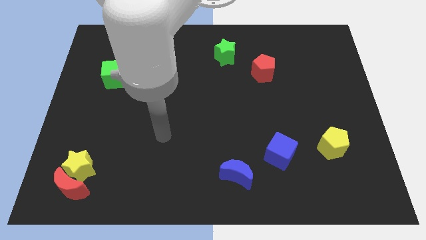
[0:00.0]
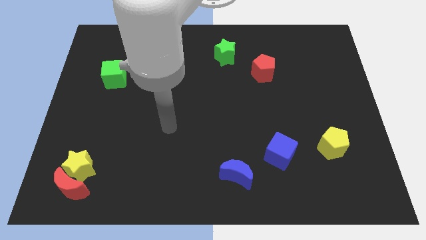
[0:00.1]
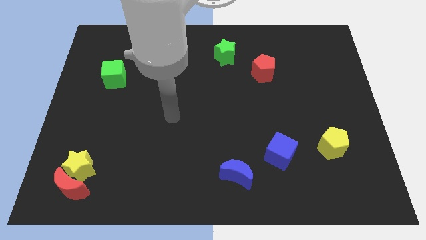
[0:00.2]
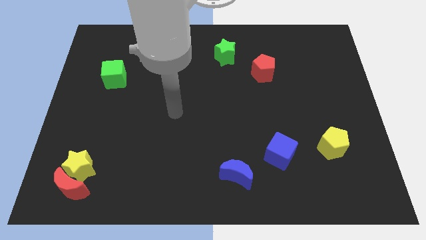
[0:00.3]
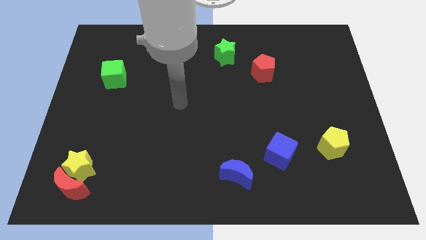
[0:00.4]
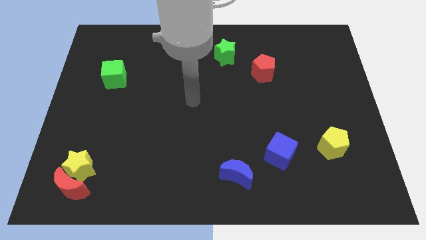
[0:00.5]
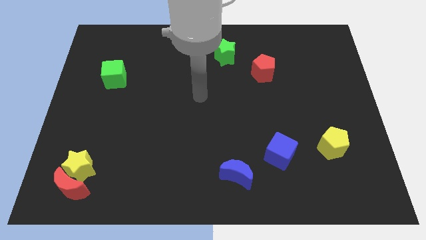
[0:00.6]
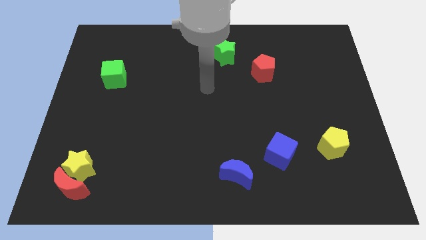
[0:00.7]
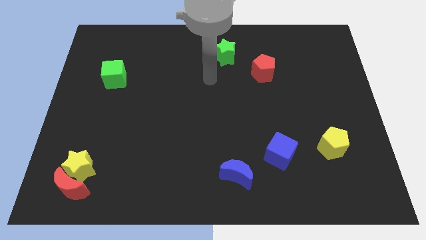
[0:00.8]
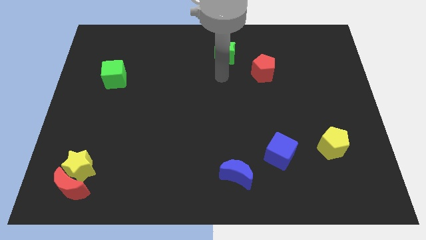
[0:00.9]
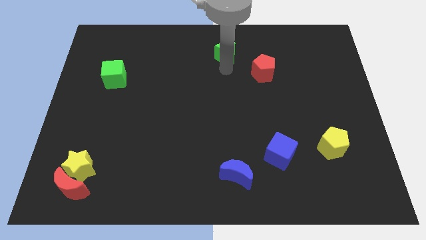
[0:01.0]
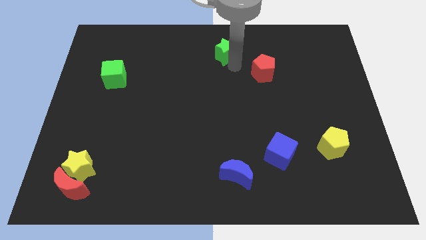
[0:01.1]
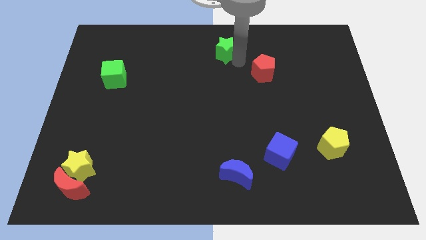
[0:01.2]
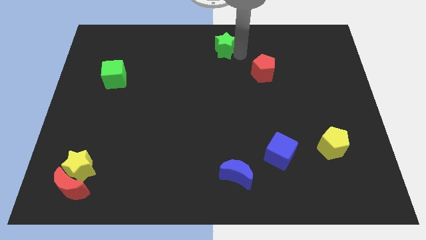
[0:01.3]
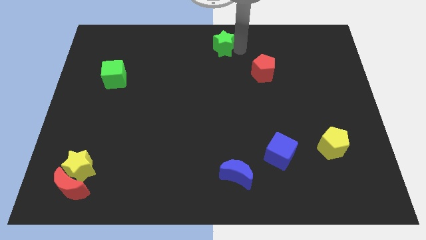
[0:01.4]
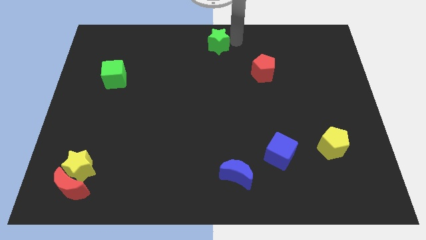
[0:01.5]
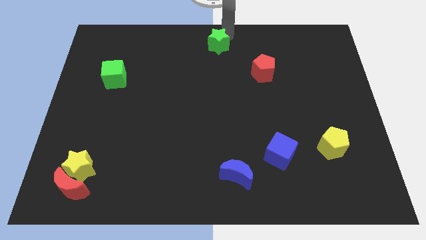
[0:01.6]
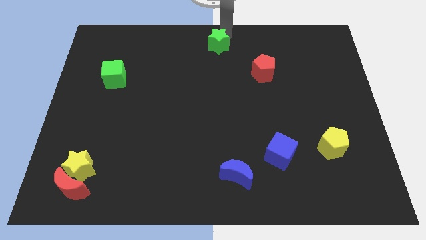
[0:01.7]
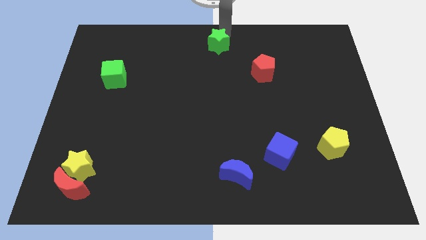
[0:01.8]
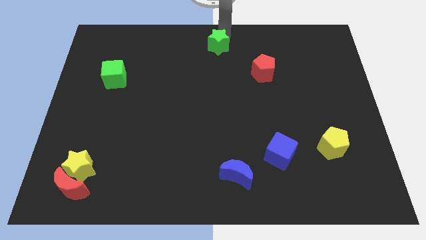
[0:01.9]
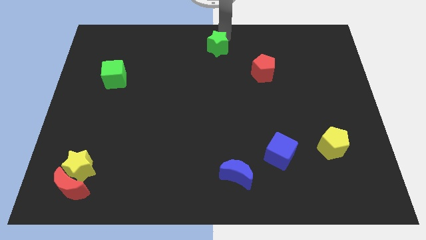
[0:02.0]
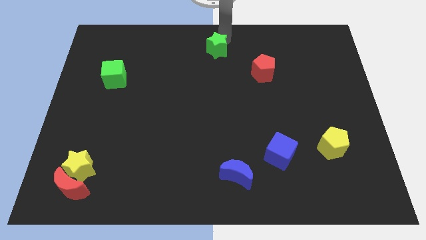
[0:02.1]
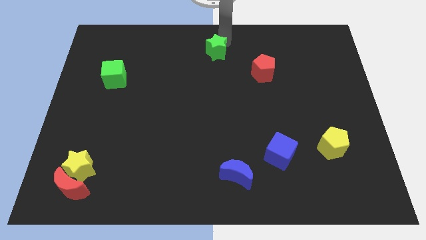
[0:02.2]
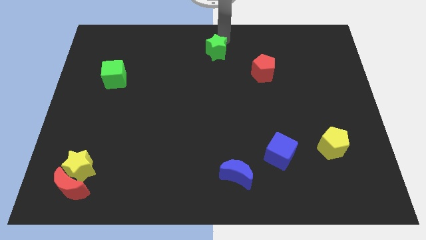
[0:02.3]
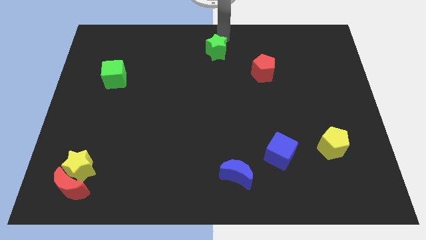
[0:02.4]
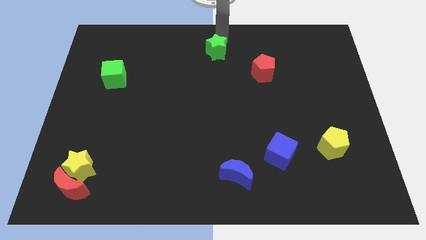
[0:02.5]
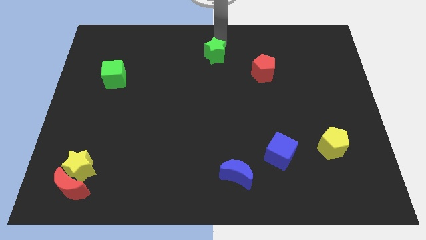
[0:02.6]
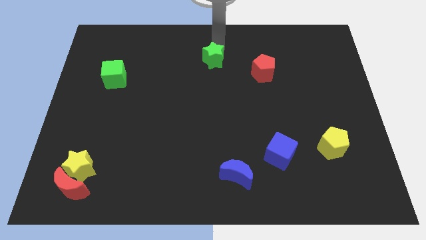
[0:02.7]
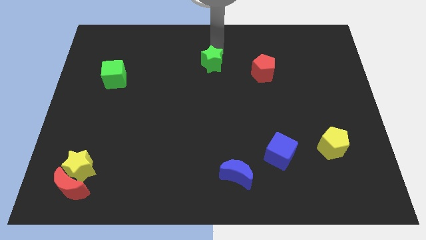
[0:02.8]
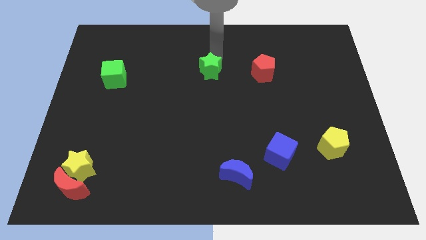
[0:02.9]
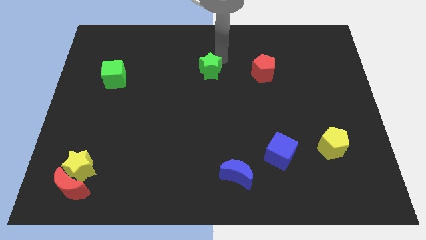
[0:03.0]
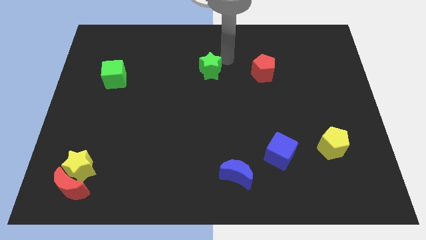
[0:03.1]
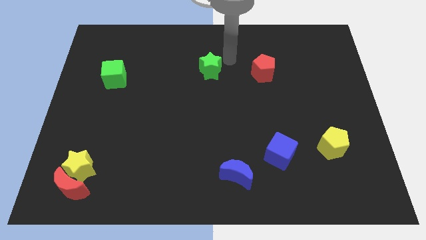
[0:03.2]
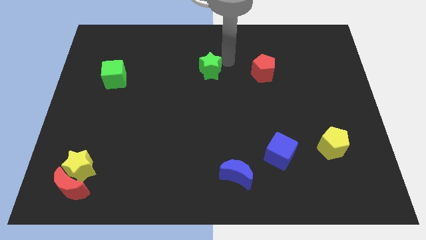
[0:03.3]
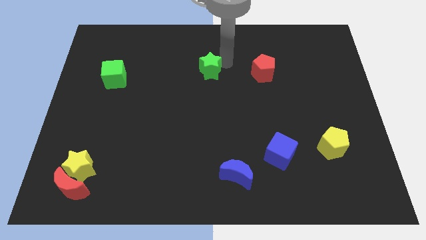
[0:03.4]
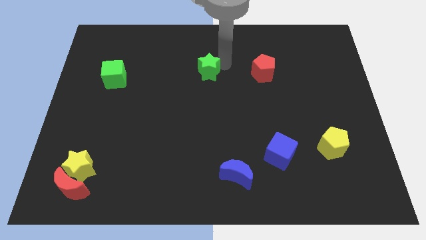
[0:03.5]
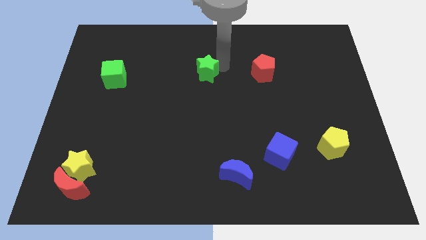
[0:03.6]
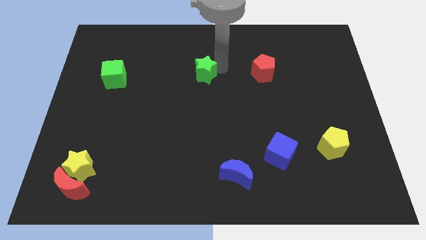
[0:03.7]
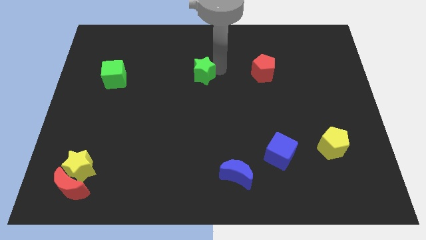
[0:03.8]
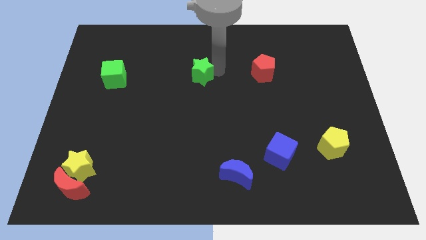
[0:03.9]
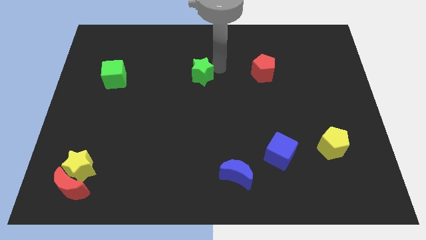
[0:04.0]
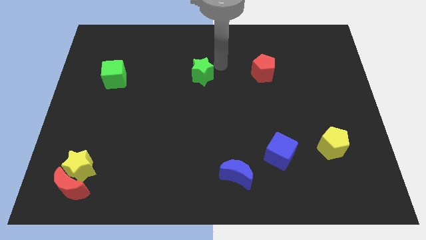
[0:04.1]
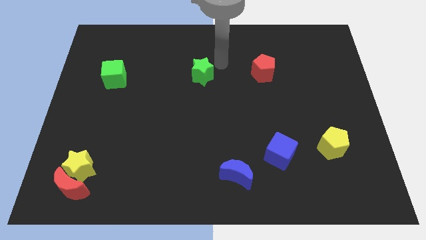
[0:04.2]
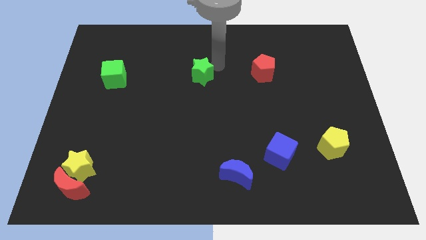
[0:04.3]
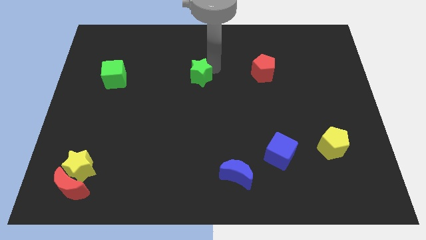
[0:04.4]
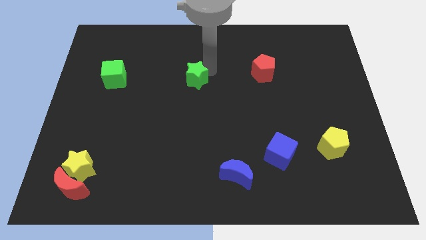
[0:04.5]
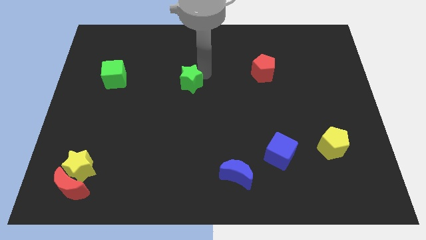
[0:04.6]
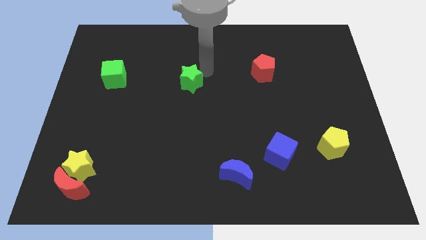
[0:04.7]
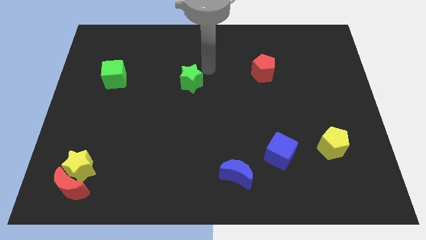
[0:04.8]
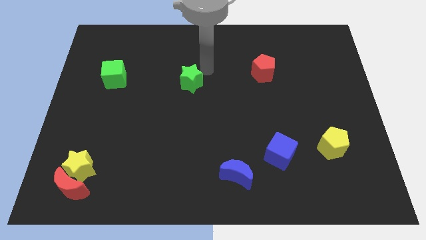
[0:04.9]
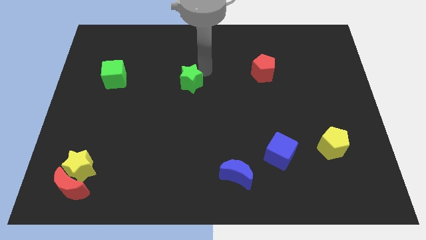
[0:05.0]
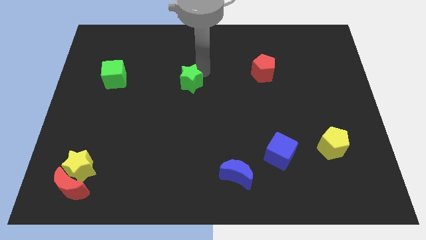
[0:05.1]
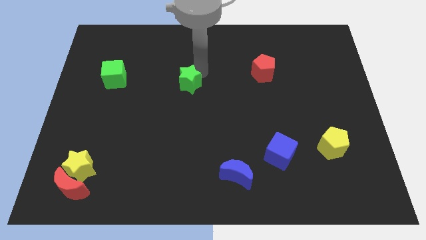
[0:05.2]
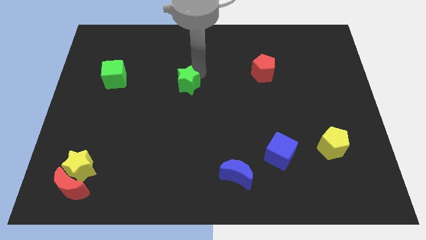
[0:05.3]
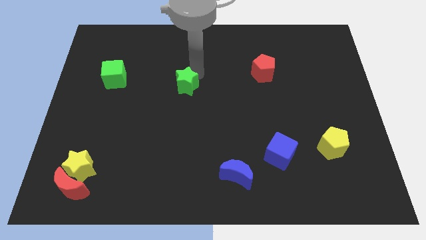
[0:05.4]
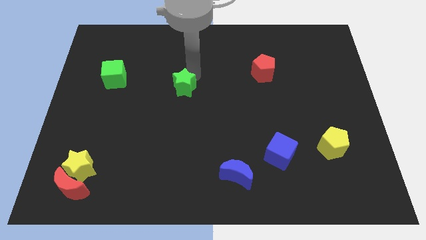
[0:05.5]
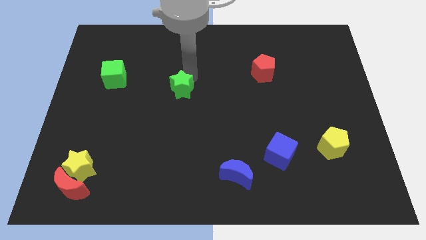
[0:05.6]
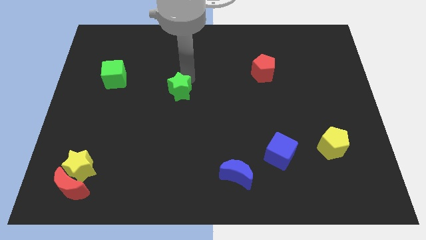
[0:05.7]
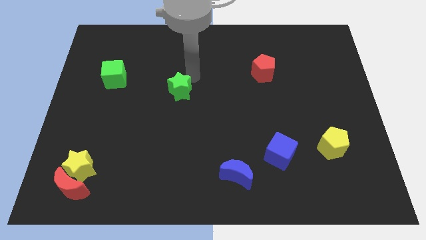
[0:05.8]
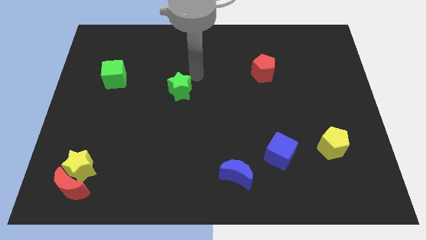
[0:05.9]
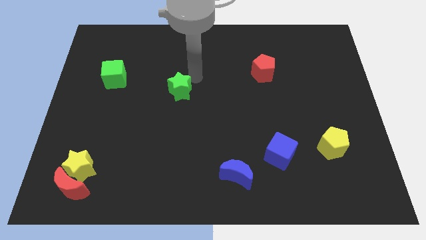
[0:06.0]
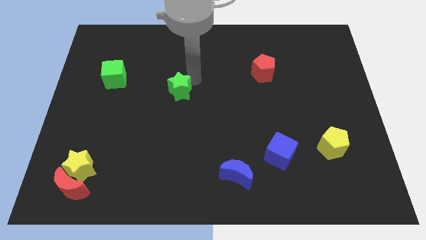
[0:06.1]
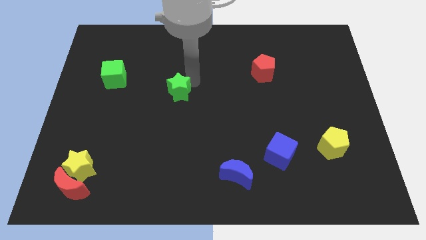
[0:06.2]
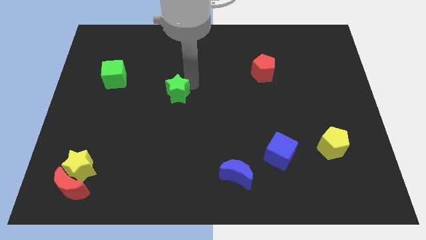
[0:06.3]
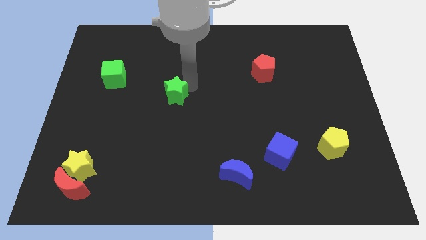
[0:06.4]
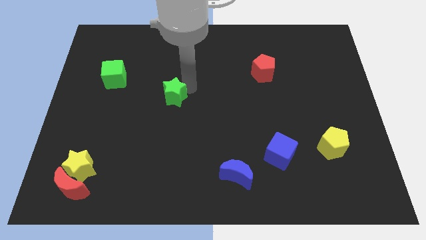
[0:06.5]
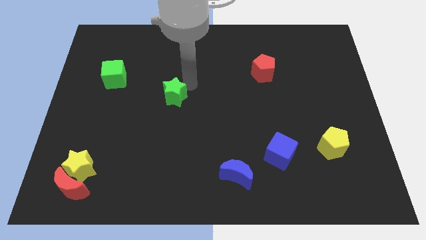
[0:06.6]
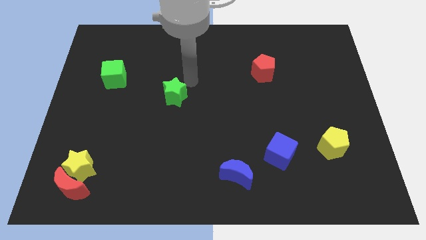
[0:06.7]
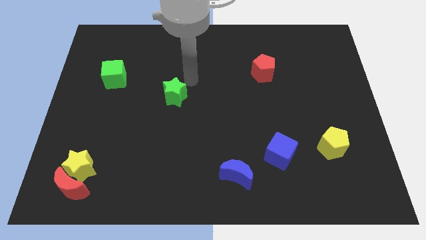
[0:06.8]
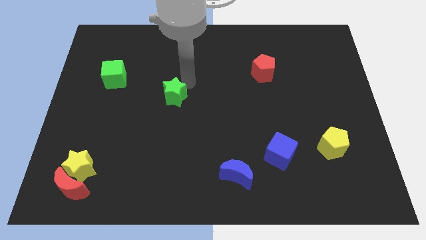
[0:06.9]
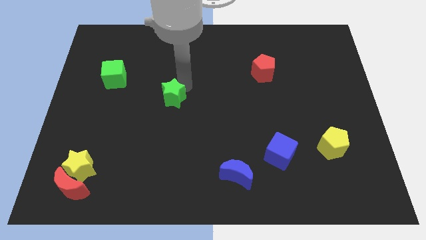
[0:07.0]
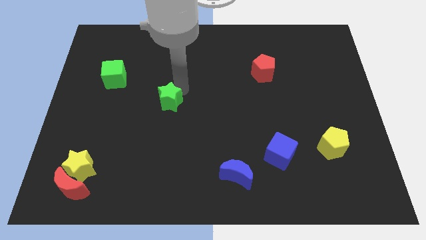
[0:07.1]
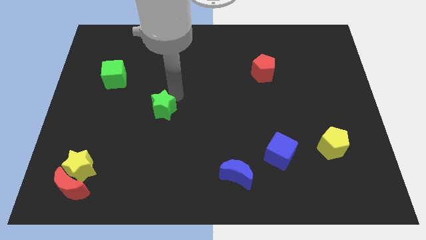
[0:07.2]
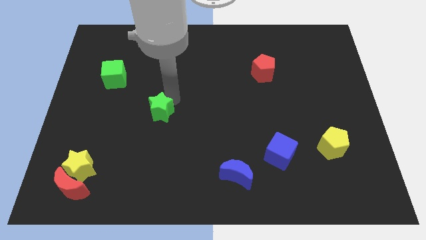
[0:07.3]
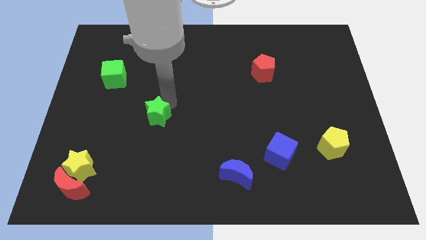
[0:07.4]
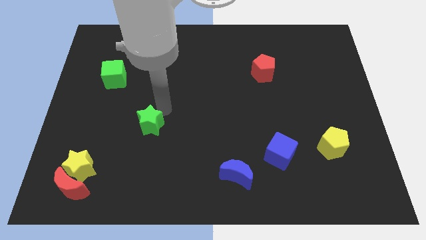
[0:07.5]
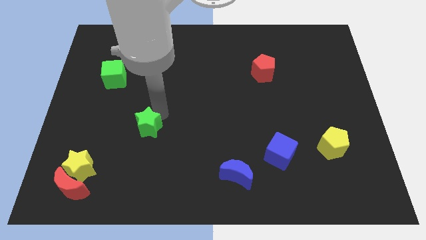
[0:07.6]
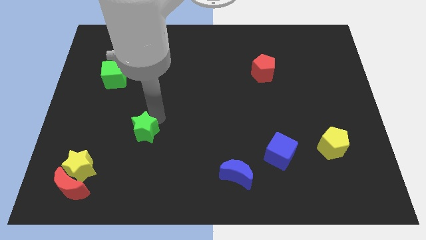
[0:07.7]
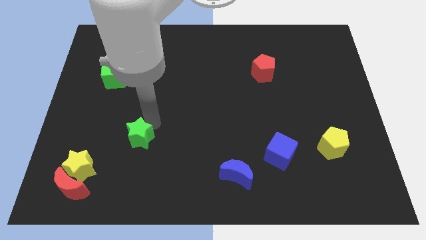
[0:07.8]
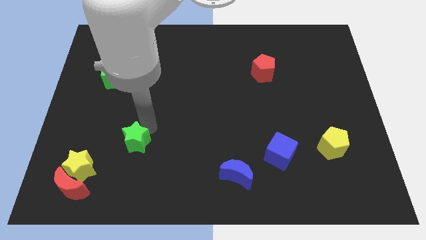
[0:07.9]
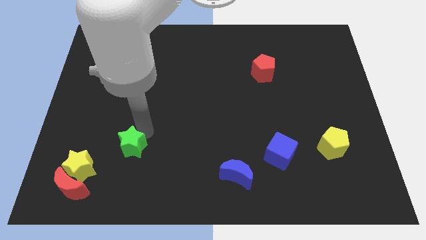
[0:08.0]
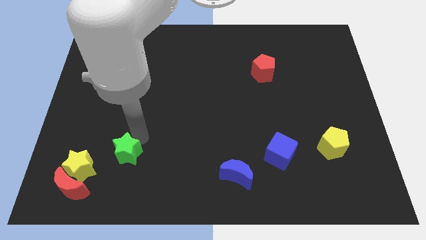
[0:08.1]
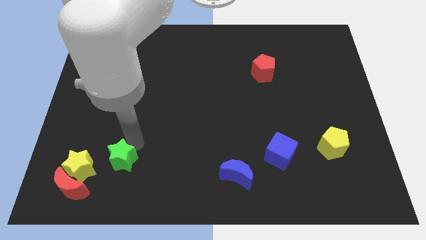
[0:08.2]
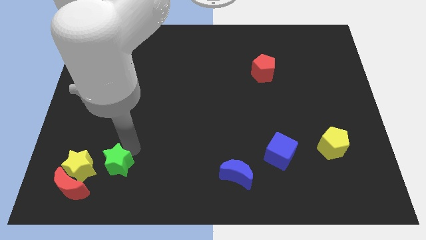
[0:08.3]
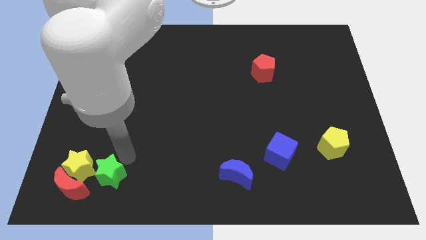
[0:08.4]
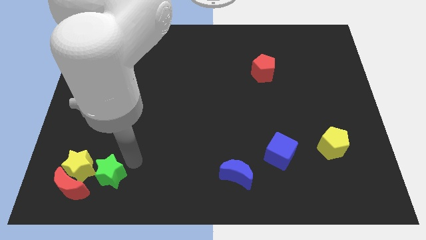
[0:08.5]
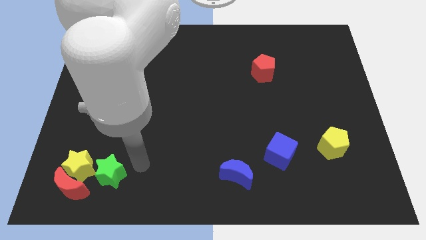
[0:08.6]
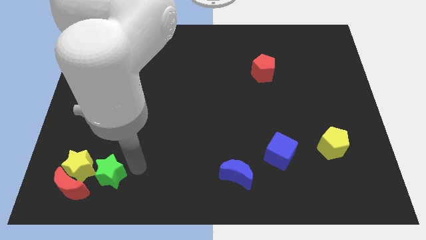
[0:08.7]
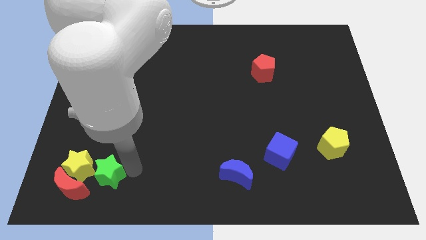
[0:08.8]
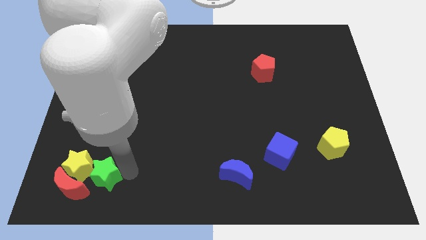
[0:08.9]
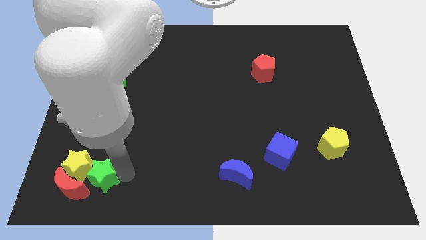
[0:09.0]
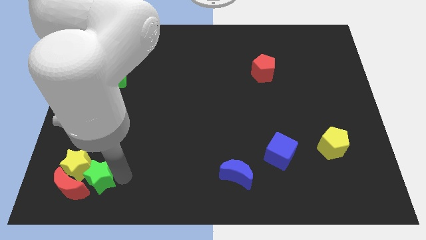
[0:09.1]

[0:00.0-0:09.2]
slide the green star next to the red moon
